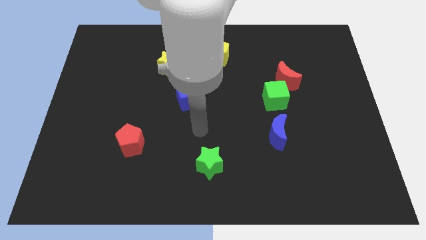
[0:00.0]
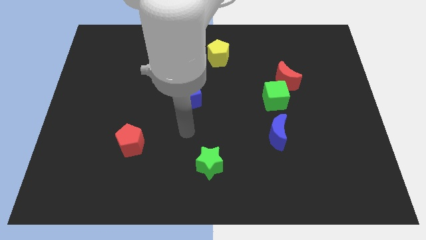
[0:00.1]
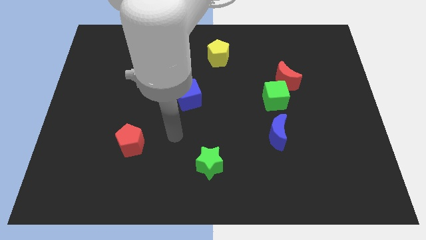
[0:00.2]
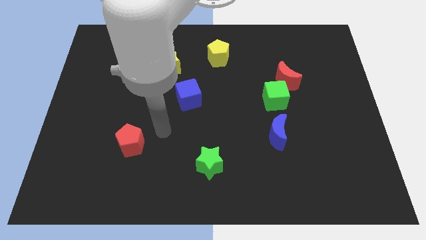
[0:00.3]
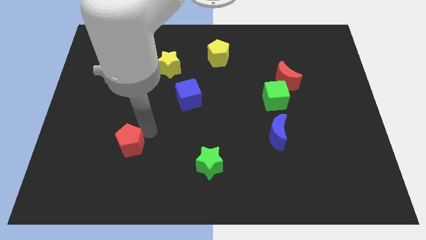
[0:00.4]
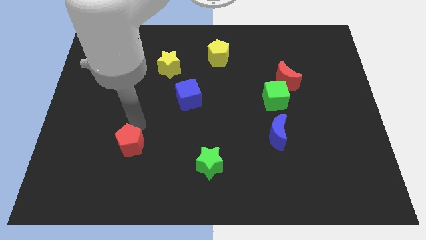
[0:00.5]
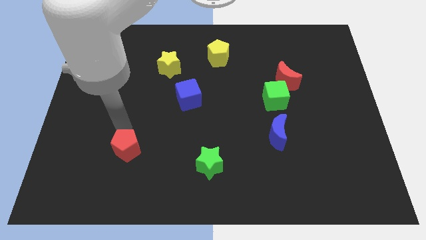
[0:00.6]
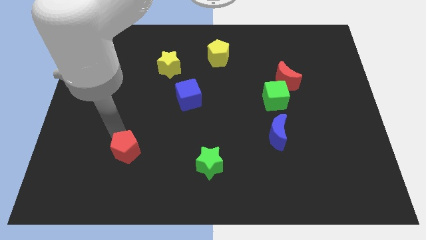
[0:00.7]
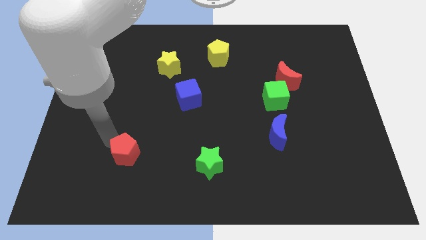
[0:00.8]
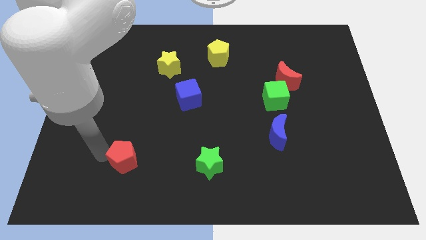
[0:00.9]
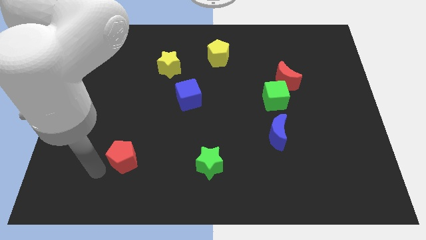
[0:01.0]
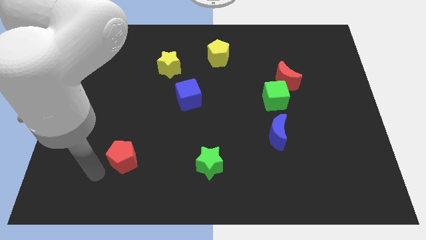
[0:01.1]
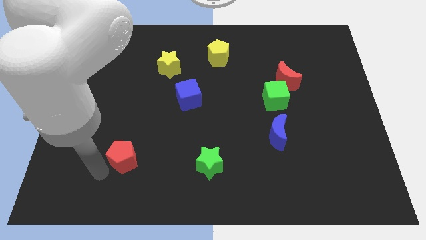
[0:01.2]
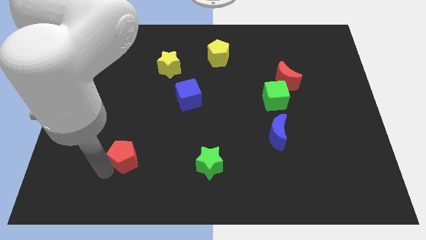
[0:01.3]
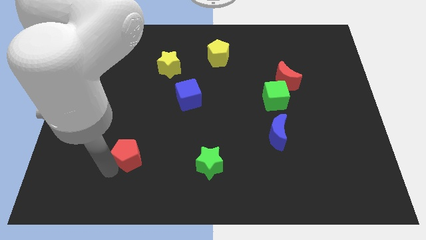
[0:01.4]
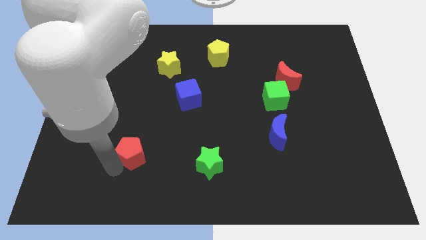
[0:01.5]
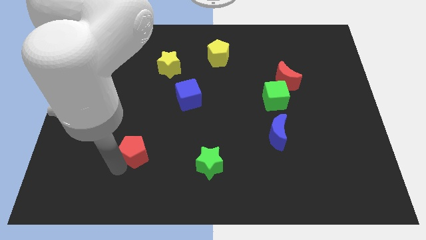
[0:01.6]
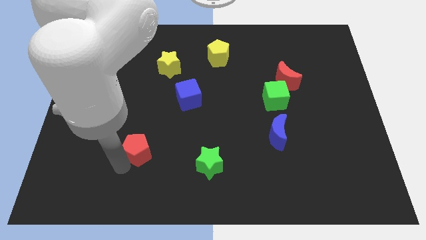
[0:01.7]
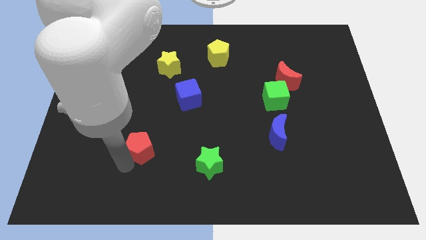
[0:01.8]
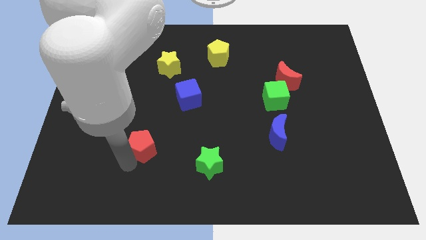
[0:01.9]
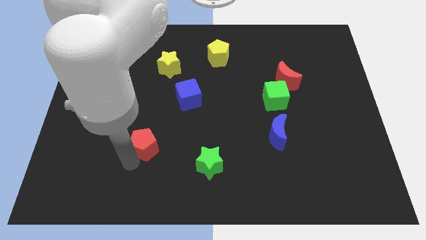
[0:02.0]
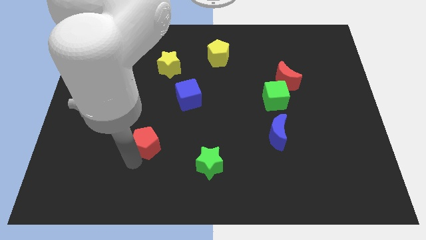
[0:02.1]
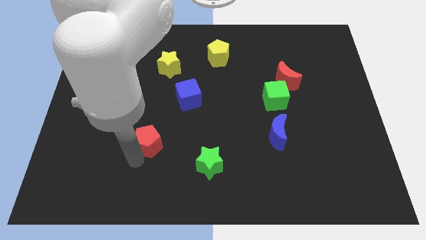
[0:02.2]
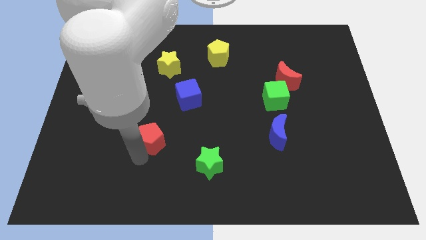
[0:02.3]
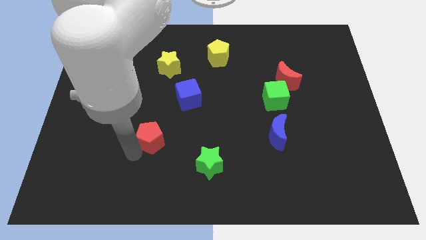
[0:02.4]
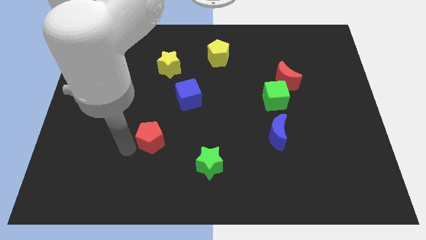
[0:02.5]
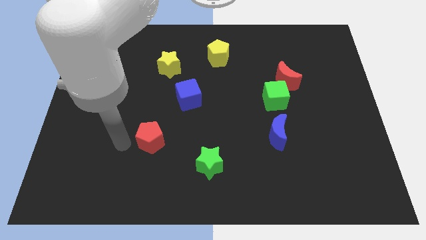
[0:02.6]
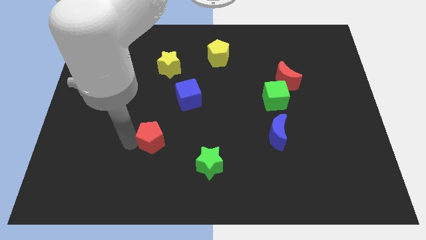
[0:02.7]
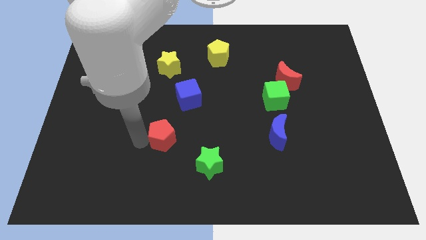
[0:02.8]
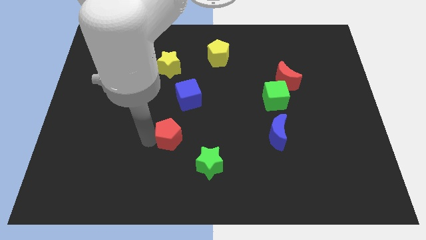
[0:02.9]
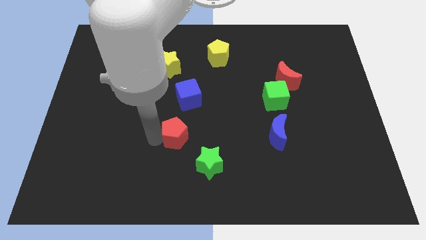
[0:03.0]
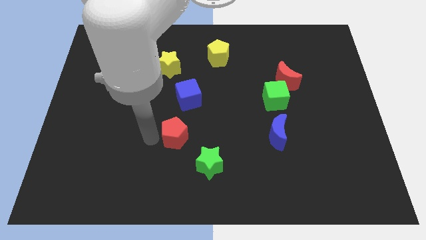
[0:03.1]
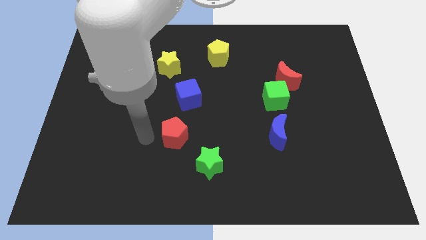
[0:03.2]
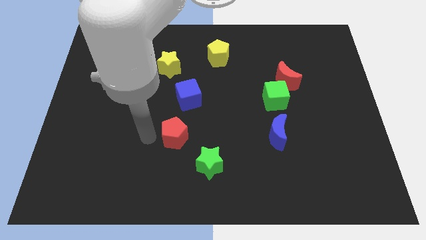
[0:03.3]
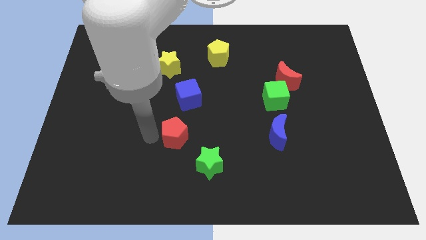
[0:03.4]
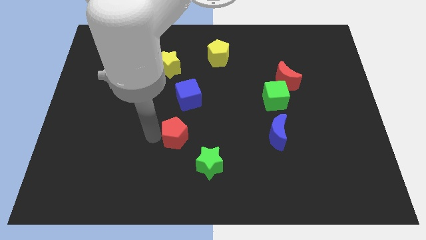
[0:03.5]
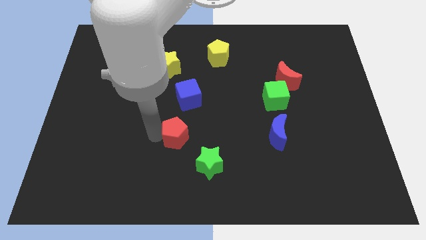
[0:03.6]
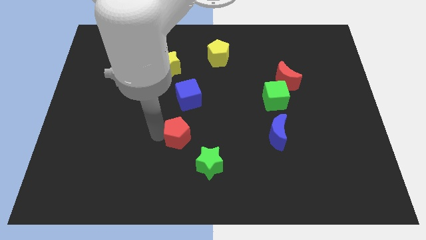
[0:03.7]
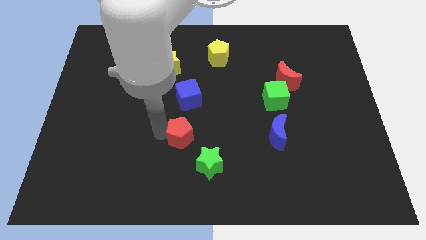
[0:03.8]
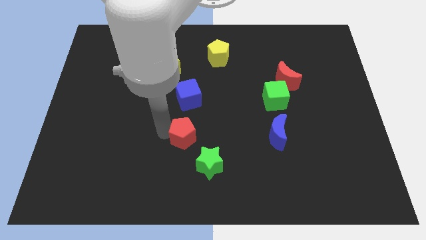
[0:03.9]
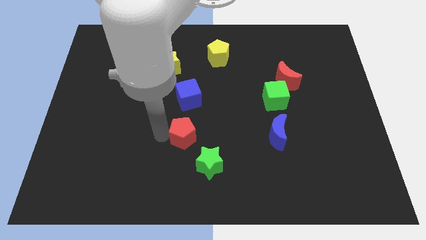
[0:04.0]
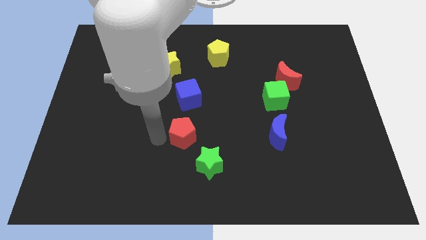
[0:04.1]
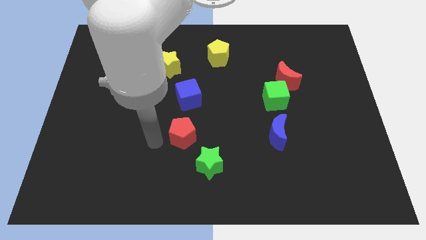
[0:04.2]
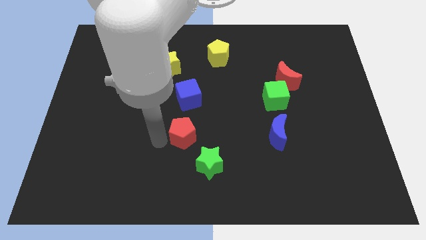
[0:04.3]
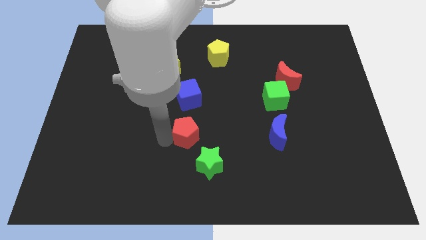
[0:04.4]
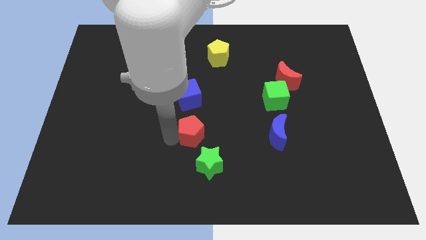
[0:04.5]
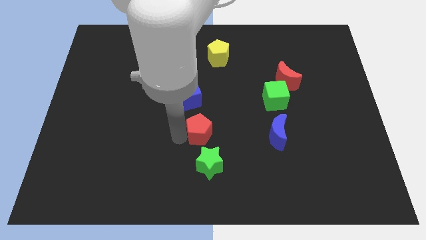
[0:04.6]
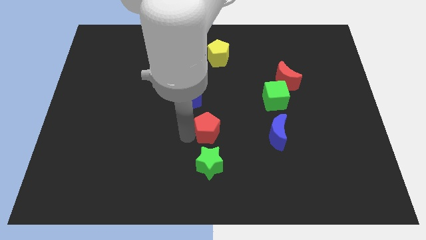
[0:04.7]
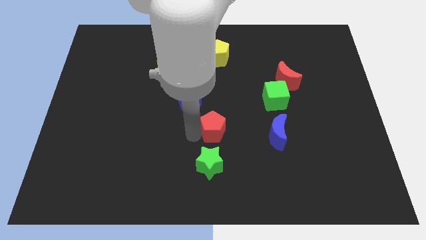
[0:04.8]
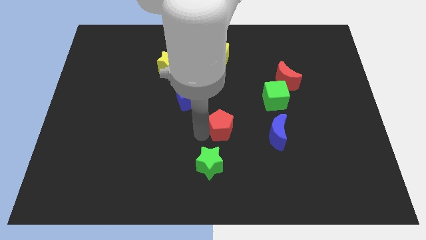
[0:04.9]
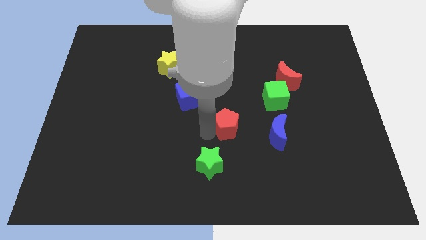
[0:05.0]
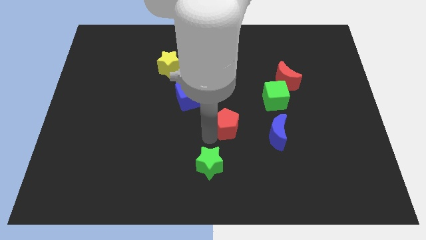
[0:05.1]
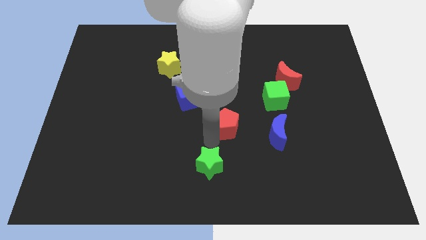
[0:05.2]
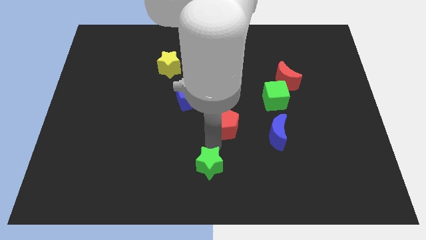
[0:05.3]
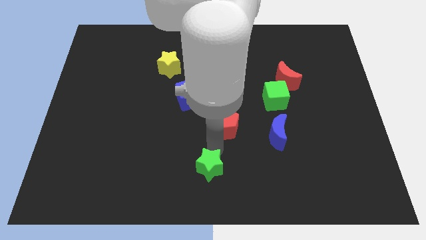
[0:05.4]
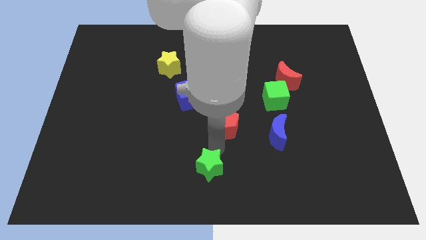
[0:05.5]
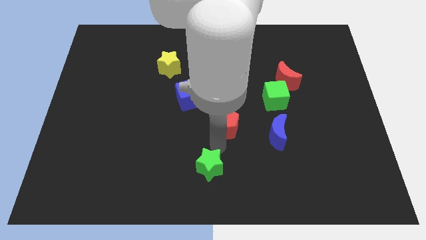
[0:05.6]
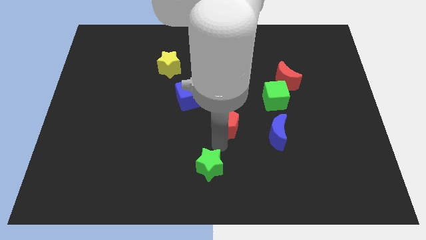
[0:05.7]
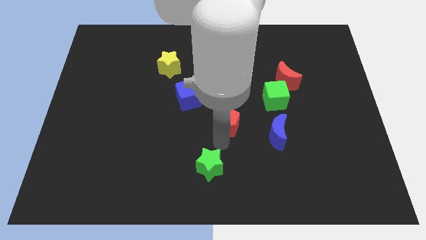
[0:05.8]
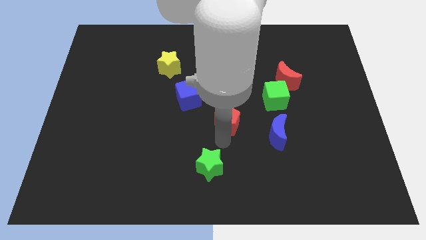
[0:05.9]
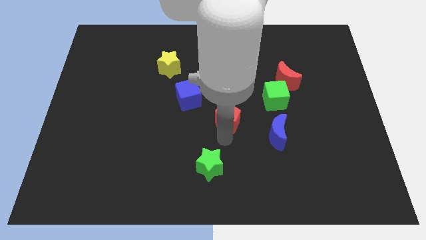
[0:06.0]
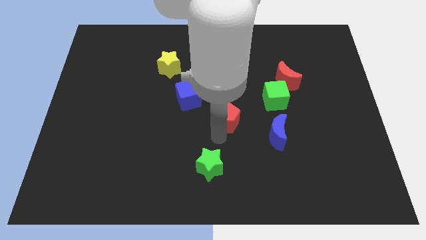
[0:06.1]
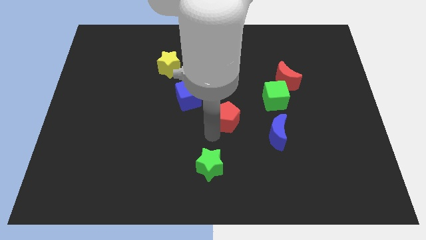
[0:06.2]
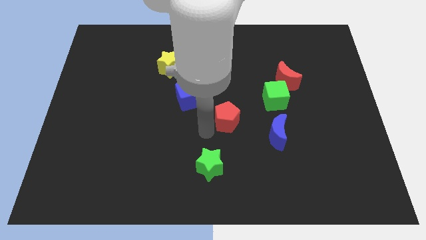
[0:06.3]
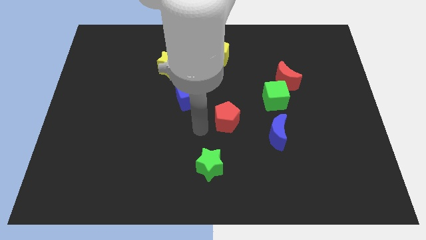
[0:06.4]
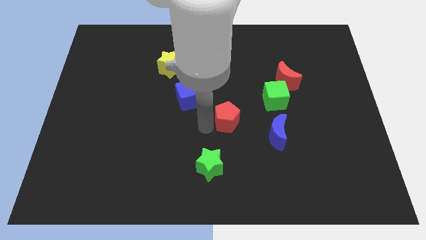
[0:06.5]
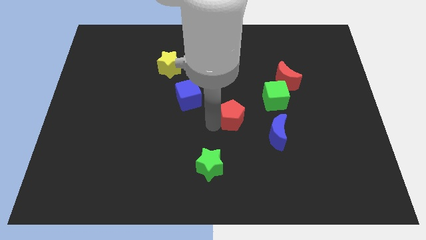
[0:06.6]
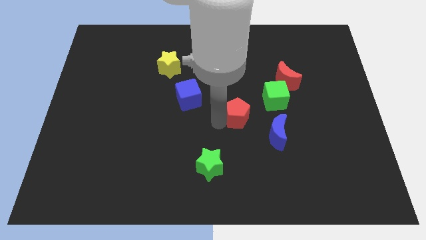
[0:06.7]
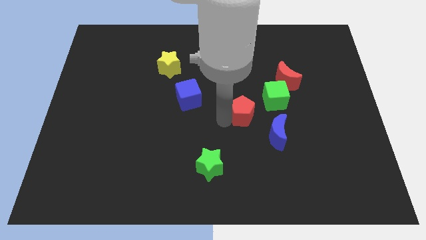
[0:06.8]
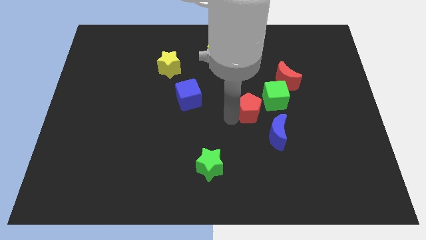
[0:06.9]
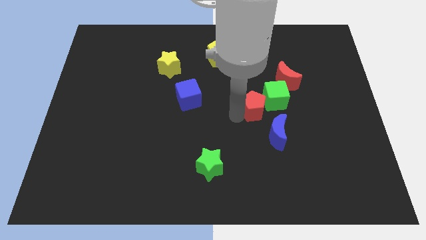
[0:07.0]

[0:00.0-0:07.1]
push the red pentagon to the green cube

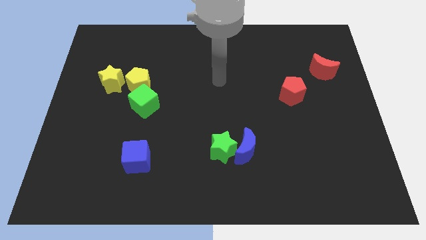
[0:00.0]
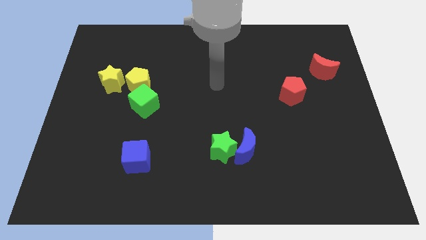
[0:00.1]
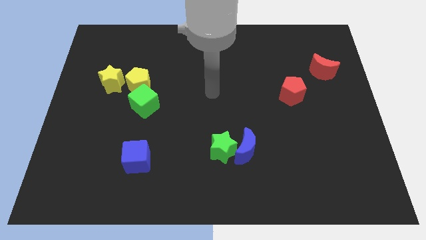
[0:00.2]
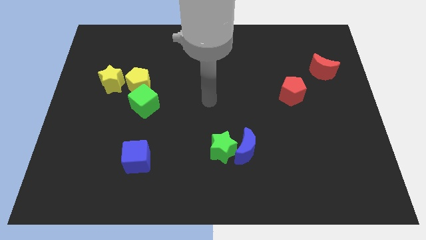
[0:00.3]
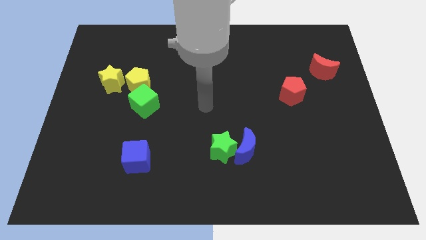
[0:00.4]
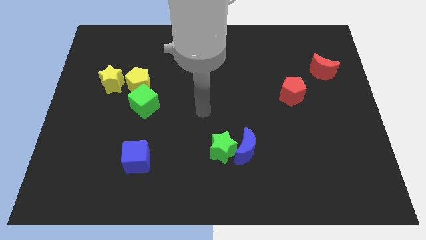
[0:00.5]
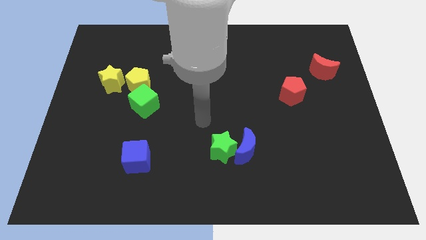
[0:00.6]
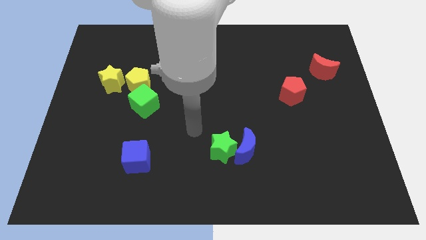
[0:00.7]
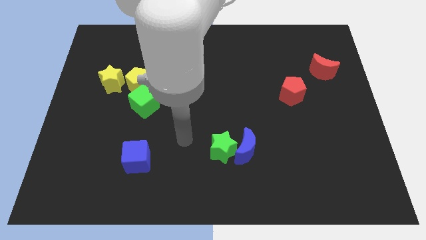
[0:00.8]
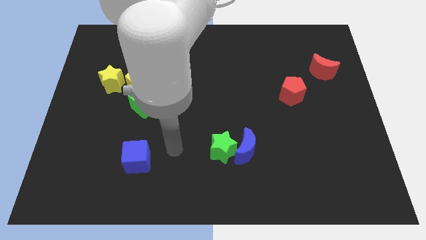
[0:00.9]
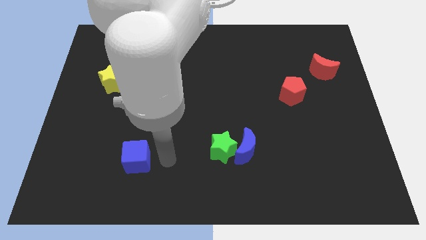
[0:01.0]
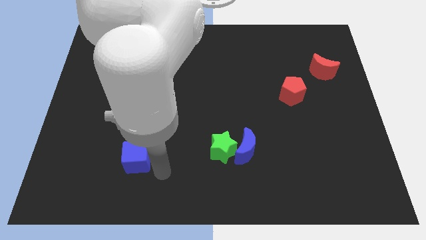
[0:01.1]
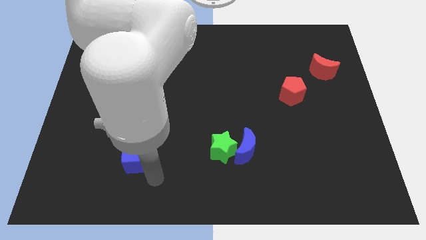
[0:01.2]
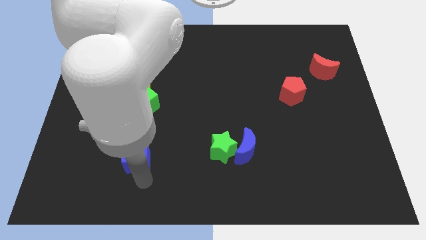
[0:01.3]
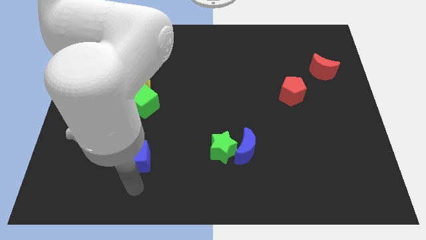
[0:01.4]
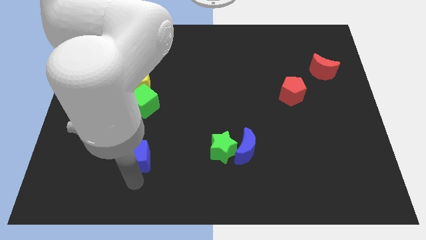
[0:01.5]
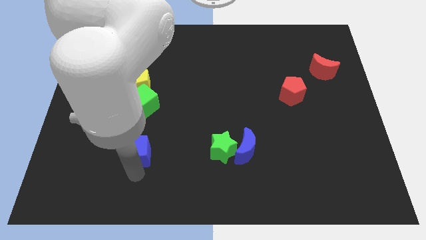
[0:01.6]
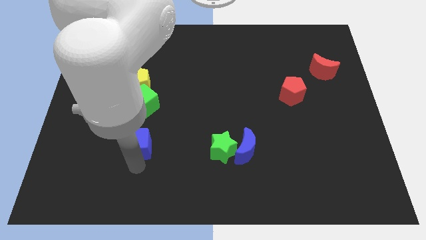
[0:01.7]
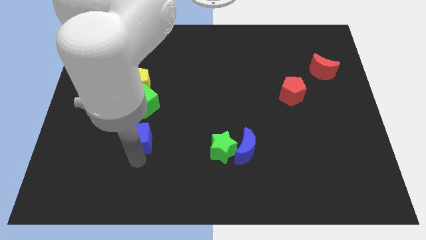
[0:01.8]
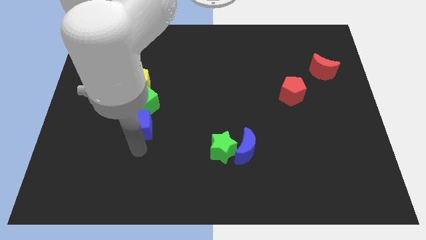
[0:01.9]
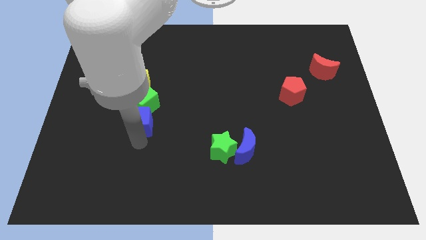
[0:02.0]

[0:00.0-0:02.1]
push the blue cube close to the green cube
